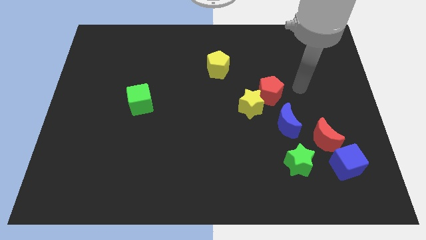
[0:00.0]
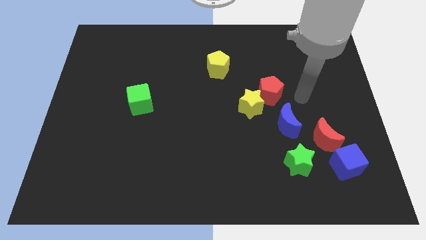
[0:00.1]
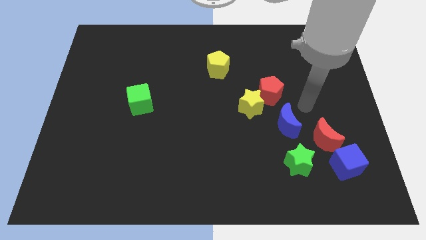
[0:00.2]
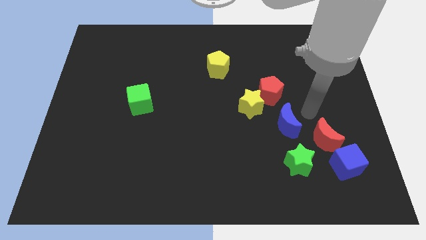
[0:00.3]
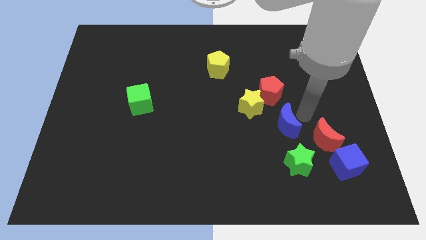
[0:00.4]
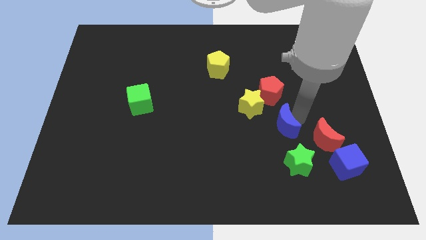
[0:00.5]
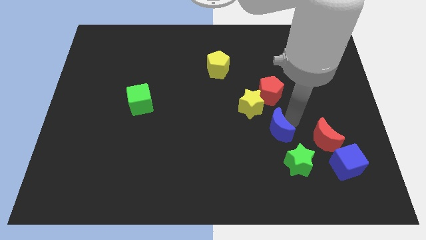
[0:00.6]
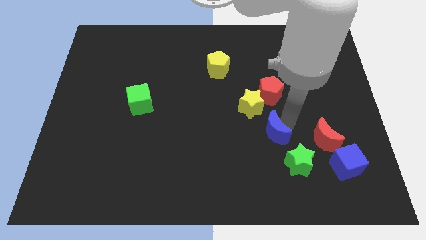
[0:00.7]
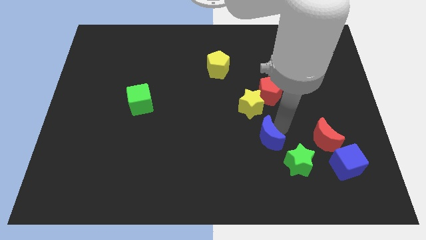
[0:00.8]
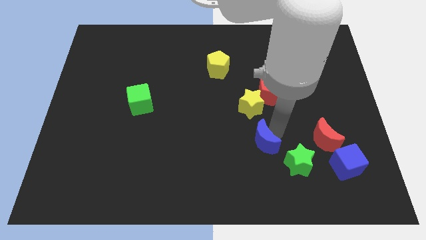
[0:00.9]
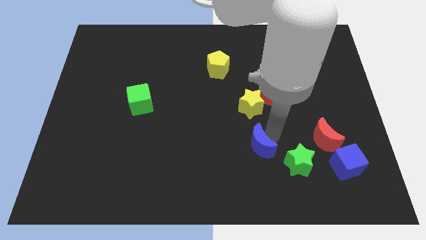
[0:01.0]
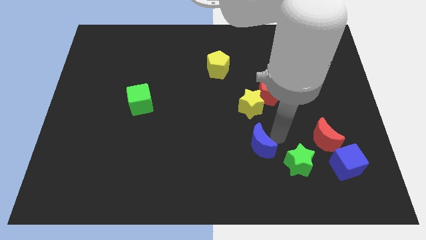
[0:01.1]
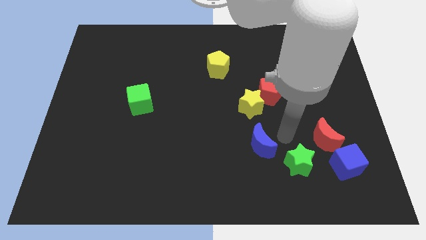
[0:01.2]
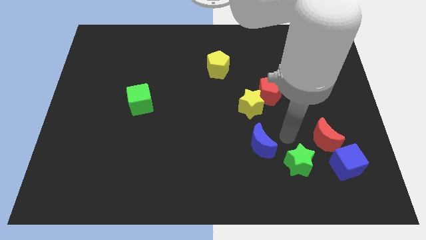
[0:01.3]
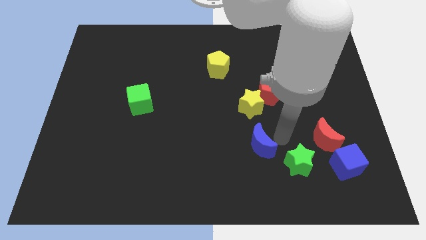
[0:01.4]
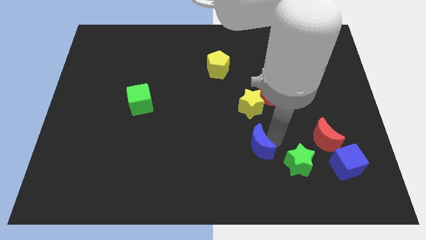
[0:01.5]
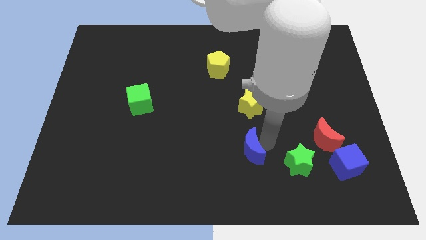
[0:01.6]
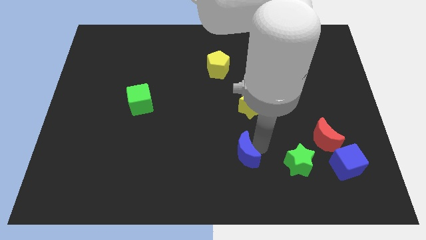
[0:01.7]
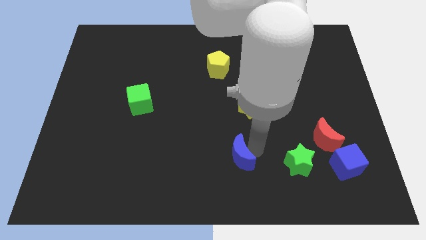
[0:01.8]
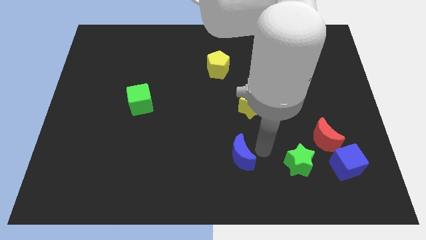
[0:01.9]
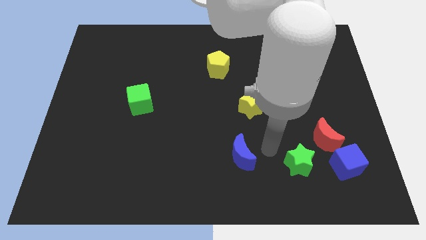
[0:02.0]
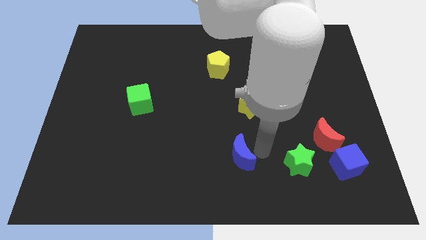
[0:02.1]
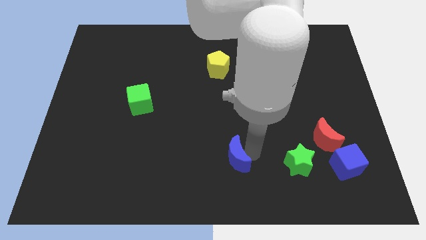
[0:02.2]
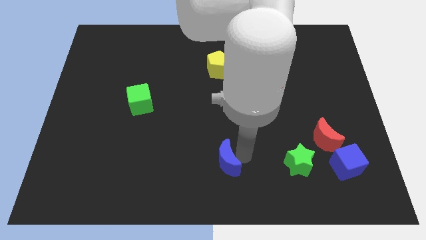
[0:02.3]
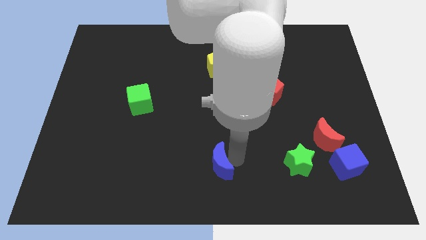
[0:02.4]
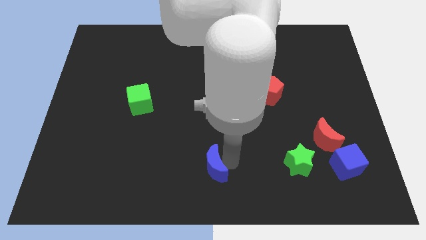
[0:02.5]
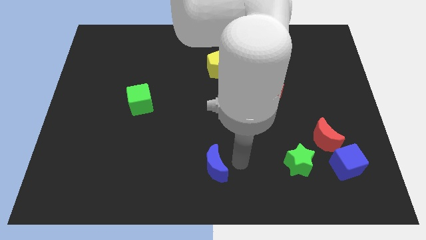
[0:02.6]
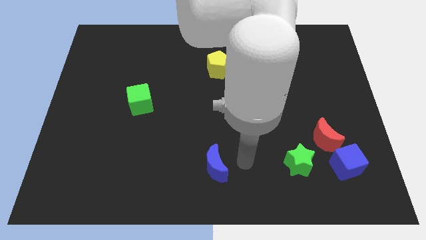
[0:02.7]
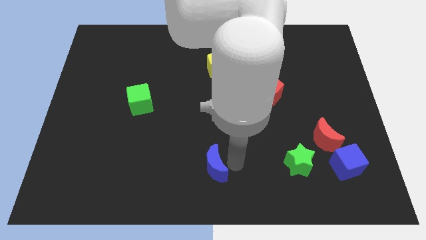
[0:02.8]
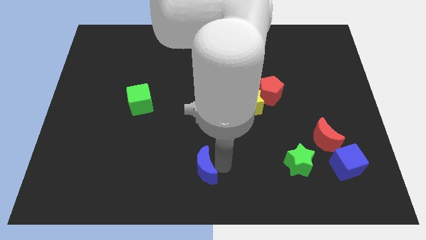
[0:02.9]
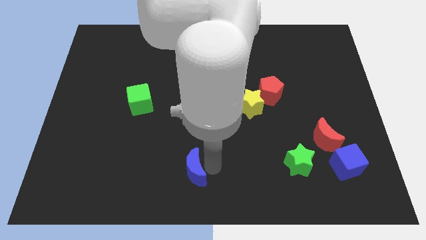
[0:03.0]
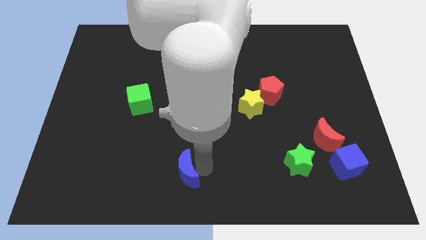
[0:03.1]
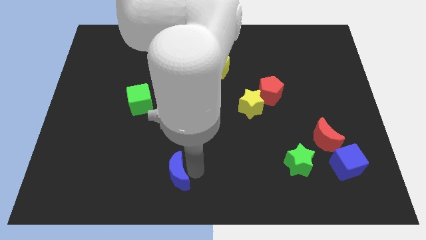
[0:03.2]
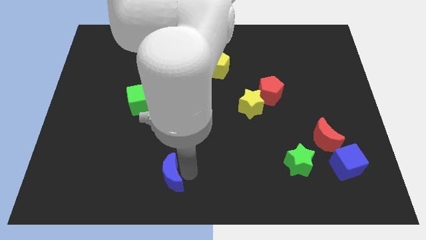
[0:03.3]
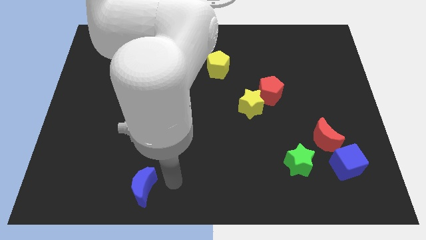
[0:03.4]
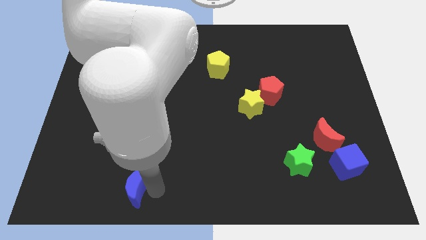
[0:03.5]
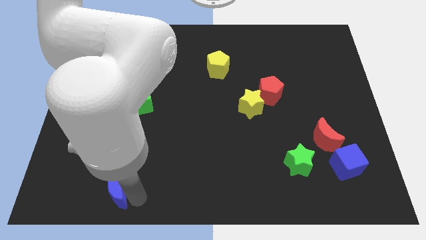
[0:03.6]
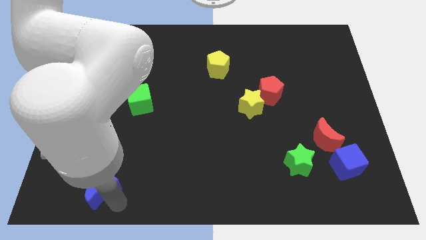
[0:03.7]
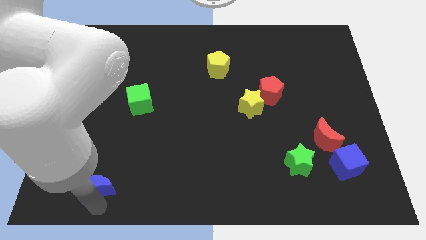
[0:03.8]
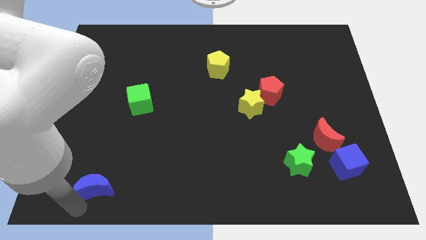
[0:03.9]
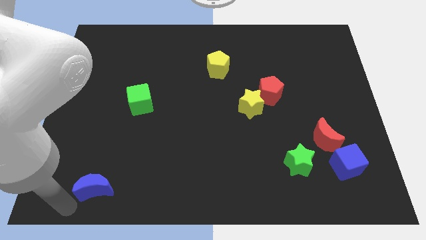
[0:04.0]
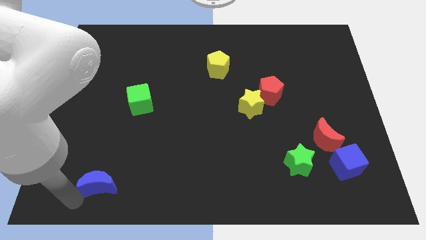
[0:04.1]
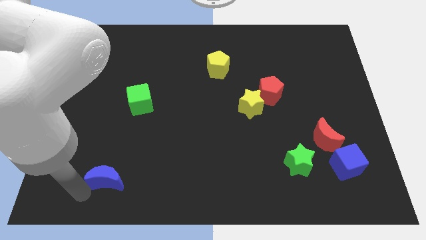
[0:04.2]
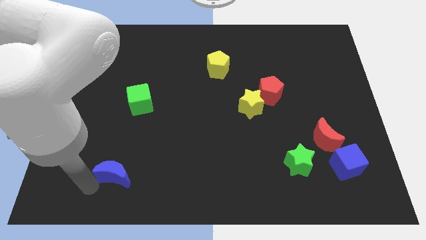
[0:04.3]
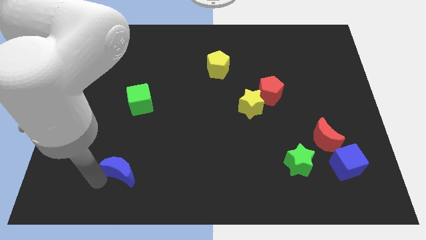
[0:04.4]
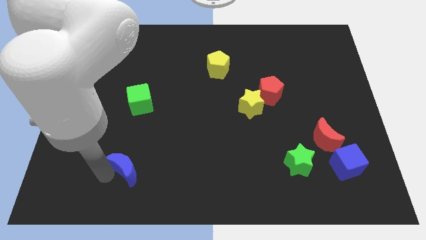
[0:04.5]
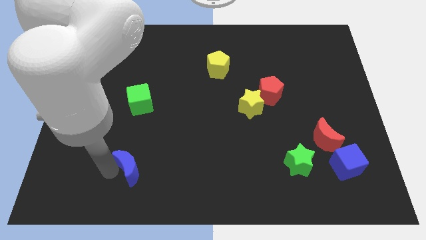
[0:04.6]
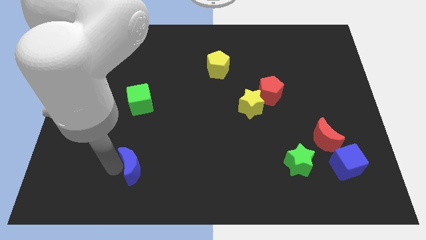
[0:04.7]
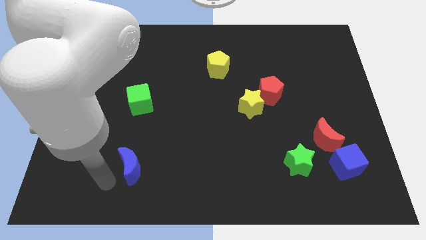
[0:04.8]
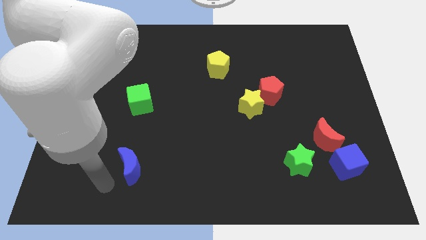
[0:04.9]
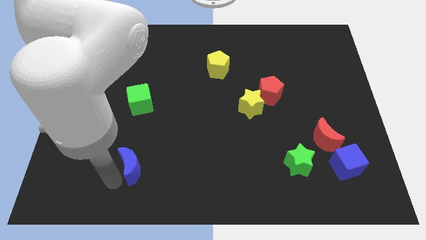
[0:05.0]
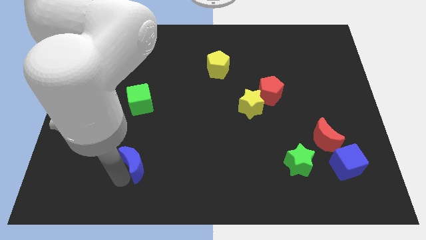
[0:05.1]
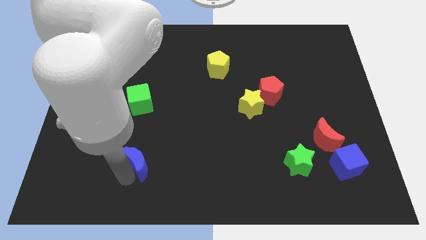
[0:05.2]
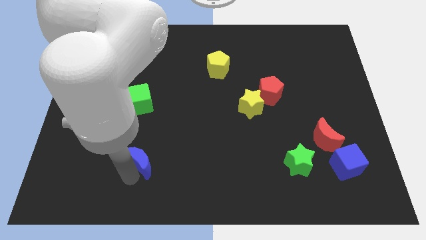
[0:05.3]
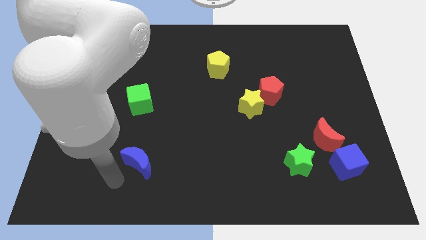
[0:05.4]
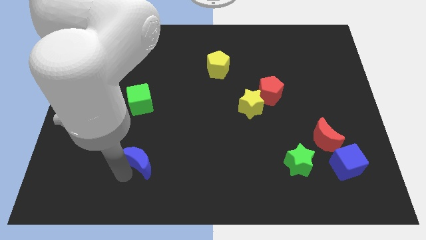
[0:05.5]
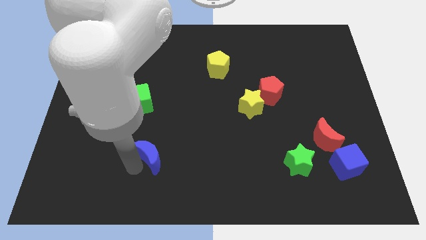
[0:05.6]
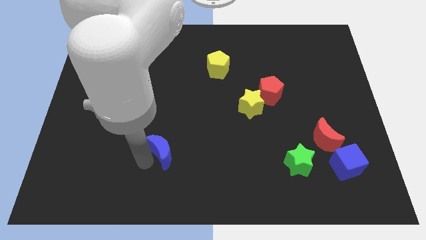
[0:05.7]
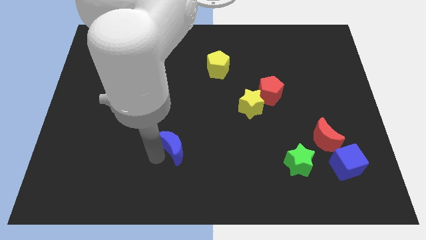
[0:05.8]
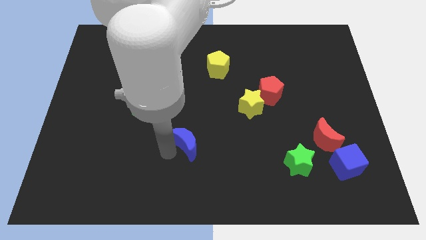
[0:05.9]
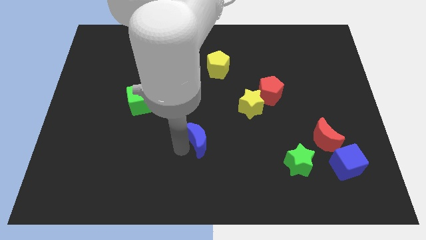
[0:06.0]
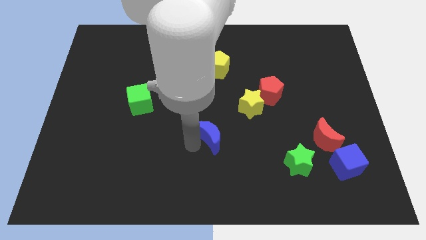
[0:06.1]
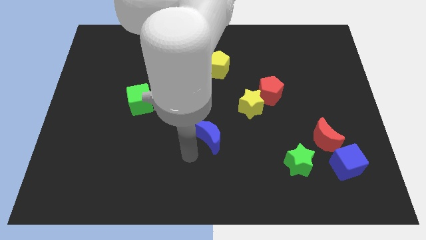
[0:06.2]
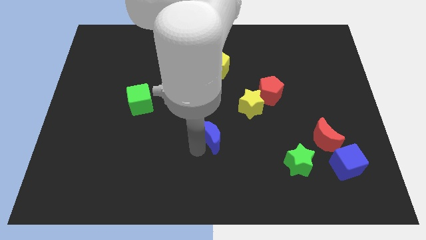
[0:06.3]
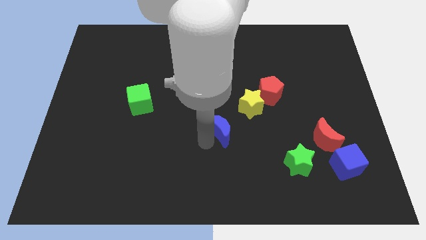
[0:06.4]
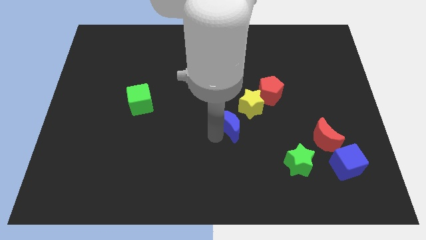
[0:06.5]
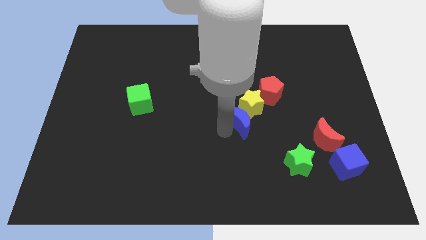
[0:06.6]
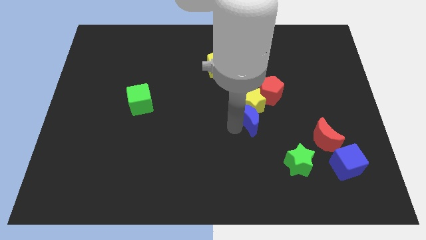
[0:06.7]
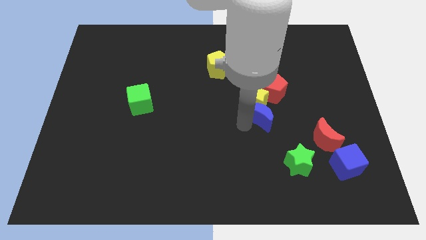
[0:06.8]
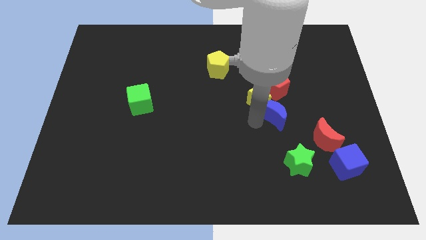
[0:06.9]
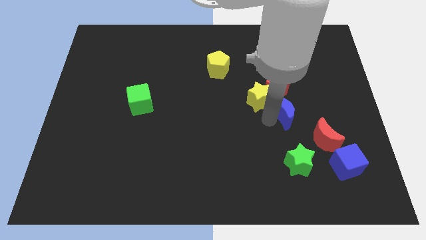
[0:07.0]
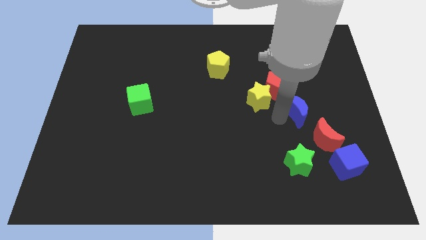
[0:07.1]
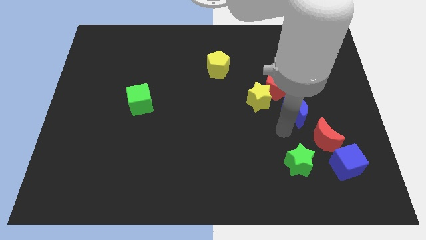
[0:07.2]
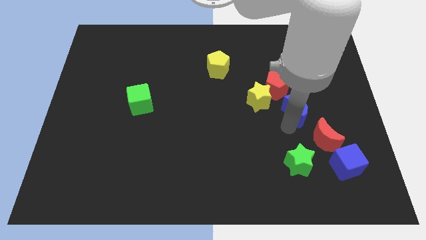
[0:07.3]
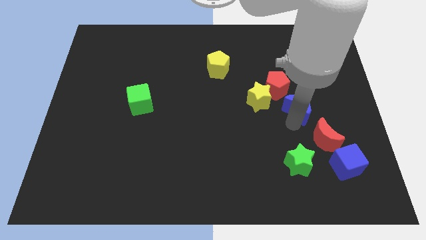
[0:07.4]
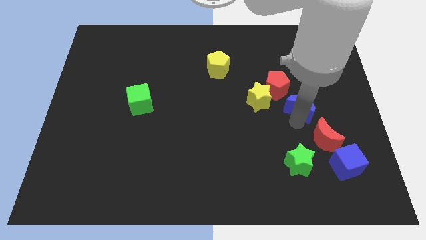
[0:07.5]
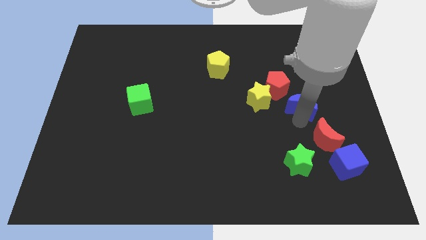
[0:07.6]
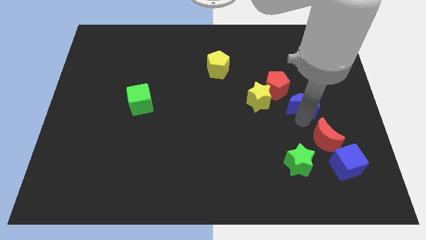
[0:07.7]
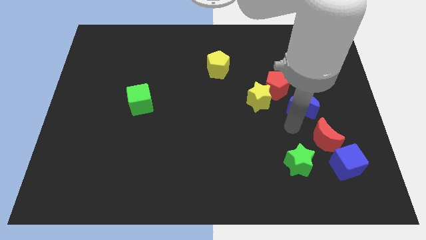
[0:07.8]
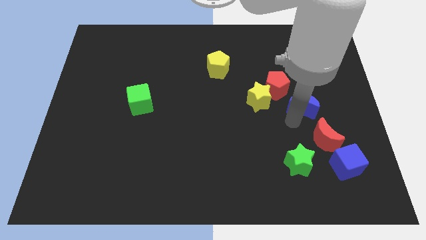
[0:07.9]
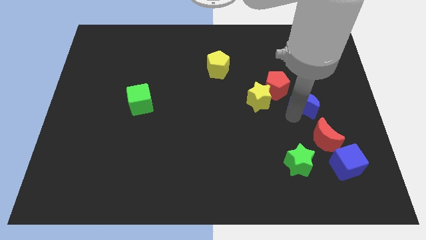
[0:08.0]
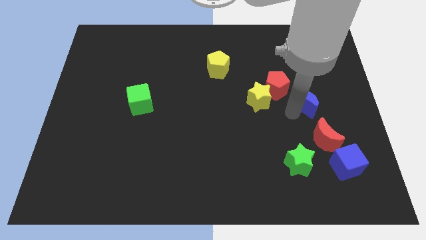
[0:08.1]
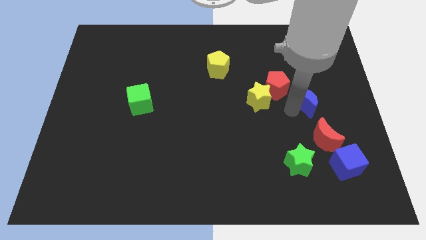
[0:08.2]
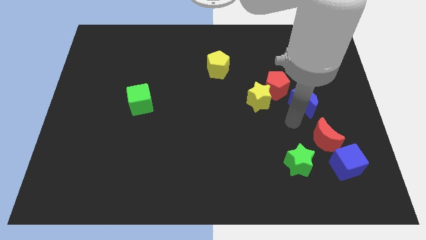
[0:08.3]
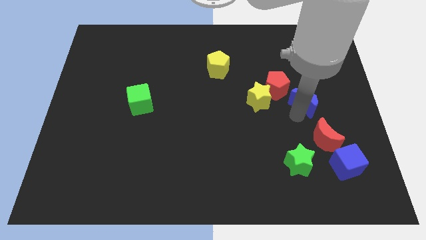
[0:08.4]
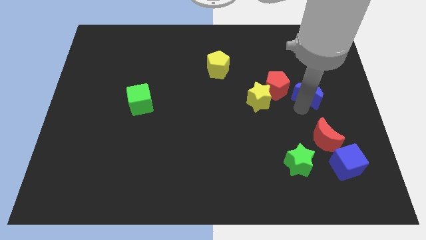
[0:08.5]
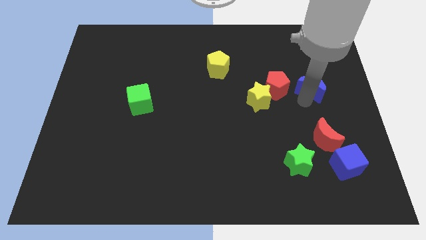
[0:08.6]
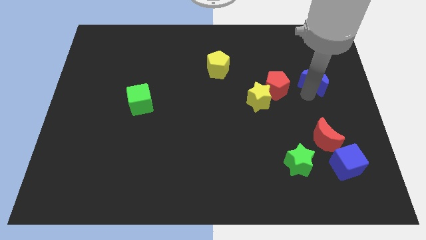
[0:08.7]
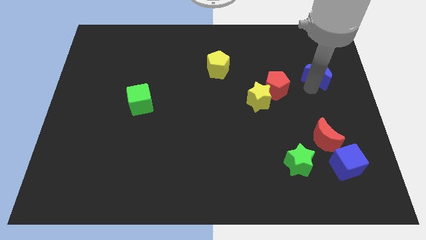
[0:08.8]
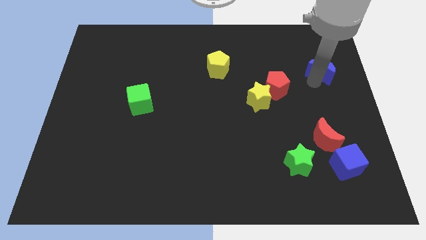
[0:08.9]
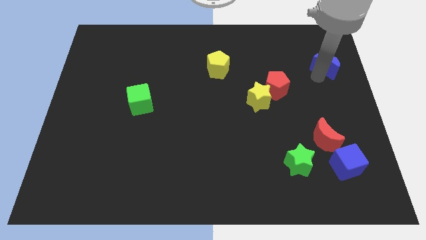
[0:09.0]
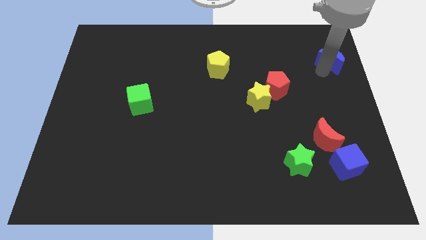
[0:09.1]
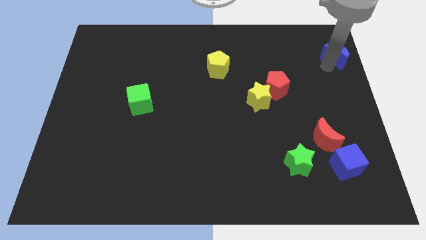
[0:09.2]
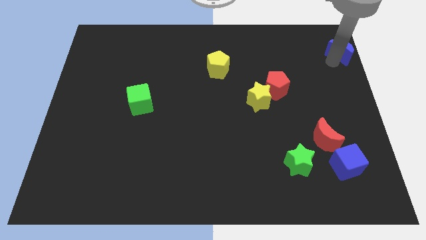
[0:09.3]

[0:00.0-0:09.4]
slide the blue moon to the top right corner
